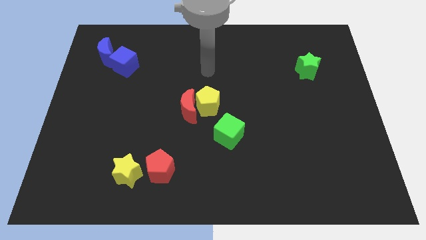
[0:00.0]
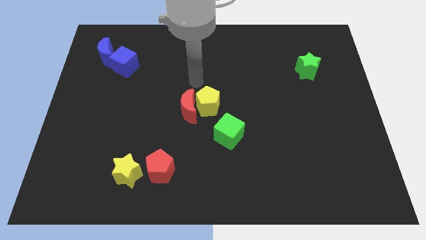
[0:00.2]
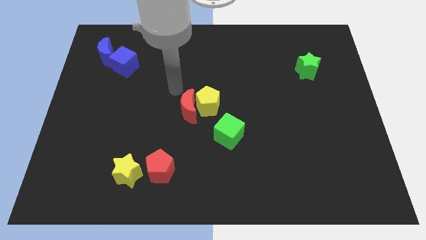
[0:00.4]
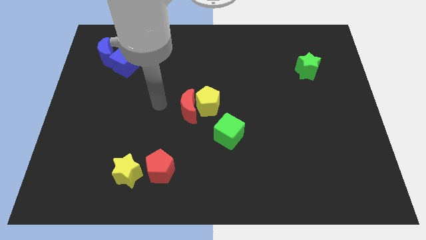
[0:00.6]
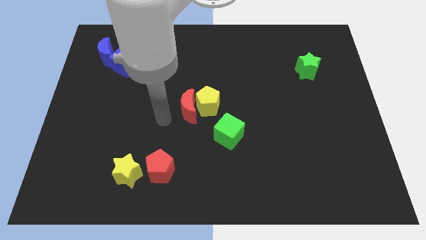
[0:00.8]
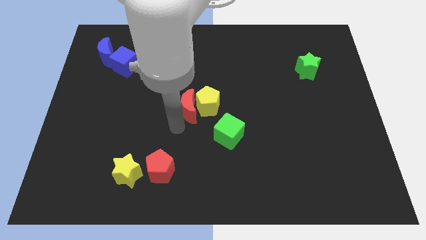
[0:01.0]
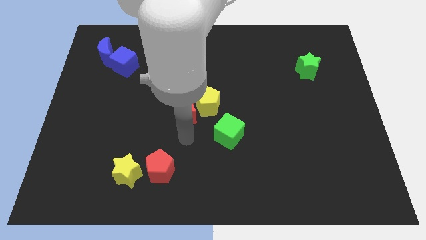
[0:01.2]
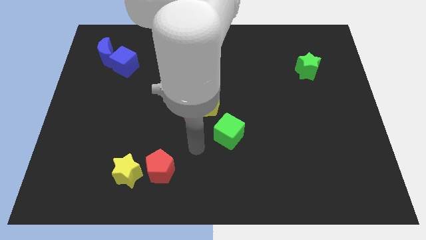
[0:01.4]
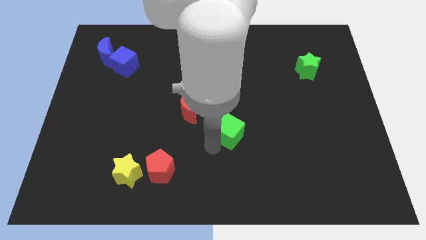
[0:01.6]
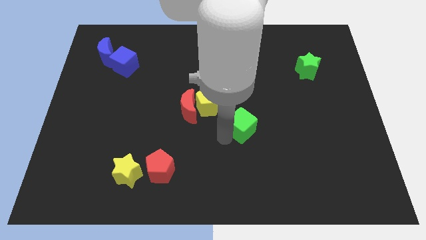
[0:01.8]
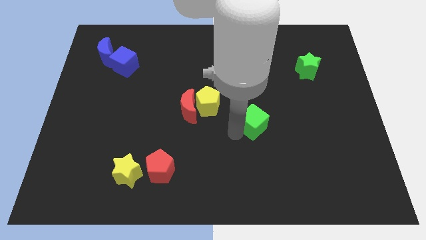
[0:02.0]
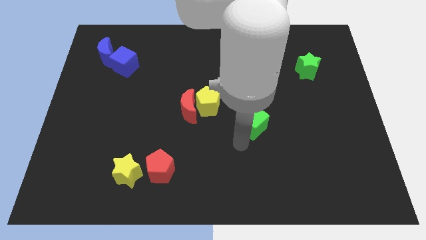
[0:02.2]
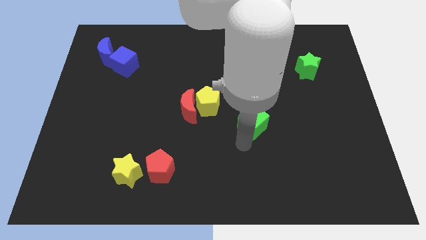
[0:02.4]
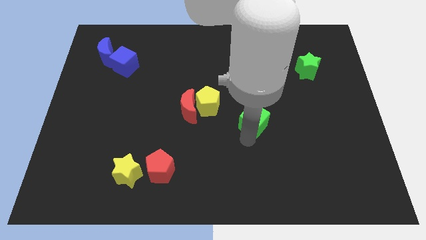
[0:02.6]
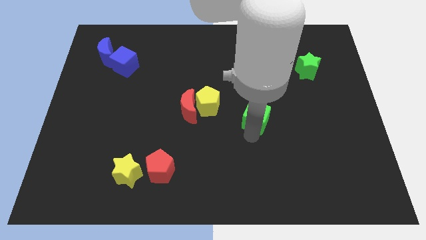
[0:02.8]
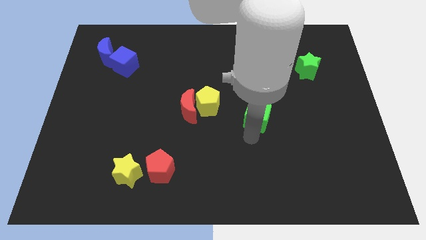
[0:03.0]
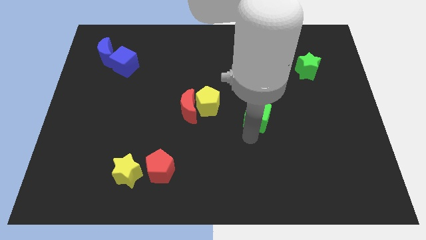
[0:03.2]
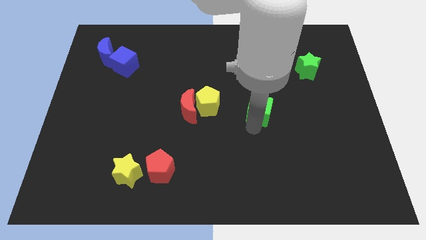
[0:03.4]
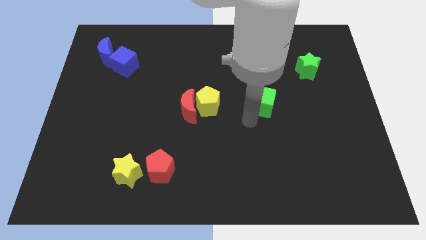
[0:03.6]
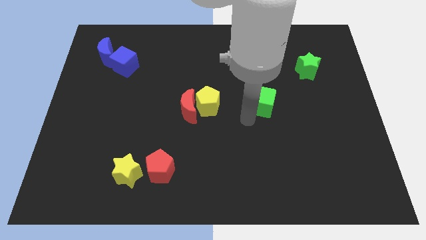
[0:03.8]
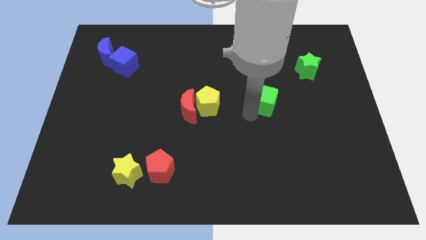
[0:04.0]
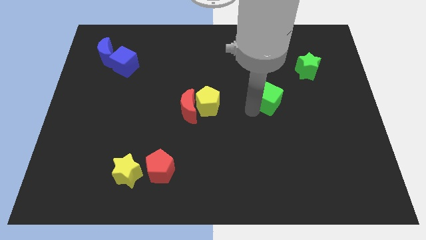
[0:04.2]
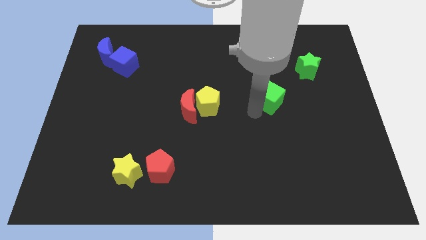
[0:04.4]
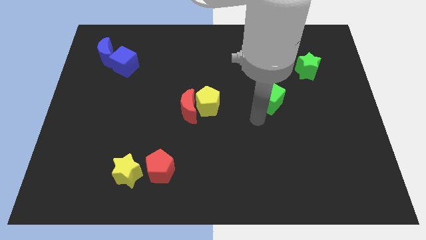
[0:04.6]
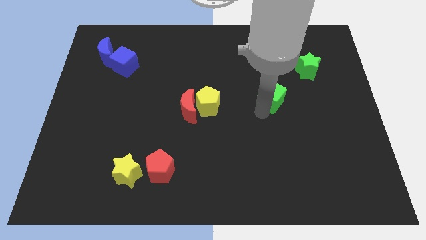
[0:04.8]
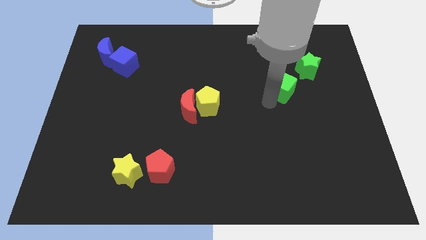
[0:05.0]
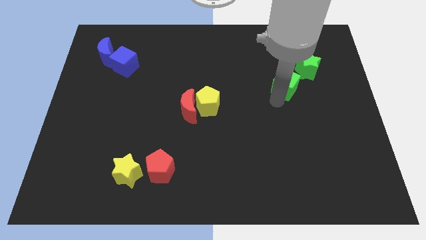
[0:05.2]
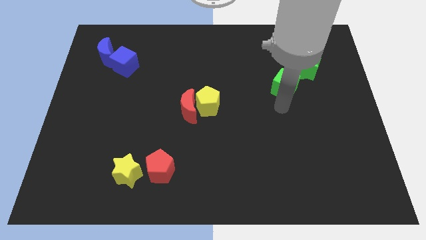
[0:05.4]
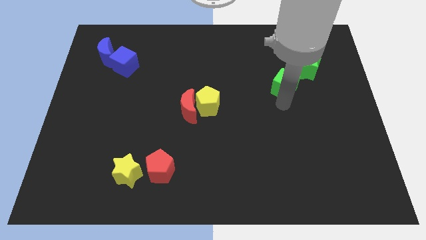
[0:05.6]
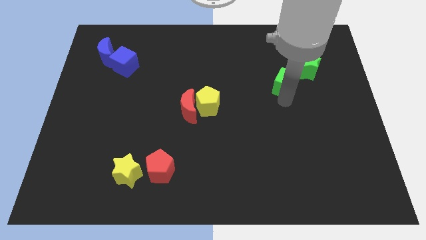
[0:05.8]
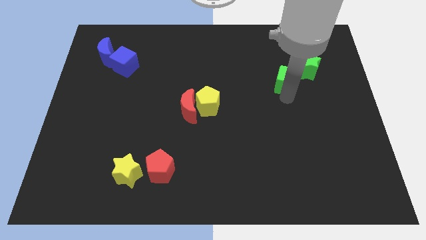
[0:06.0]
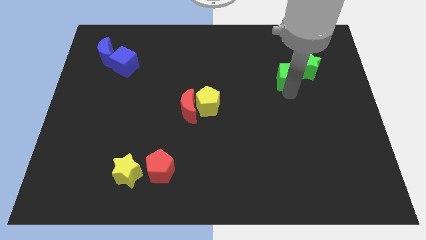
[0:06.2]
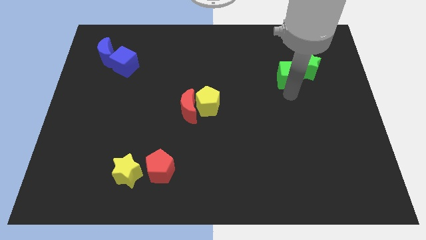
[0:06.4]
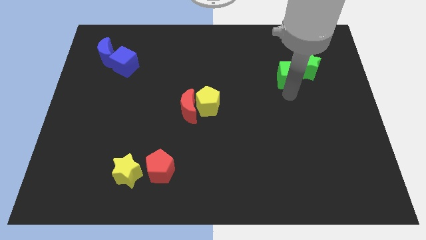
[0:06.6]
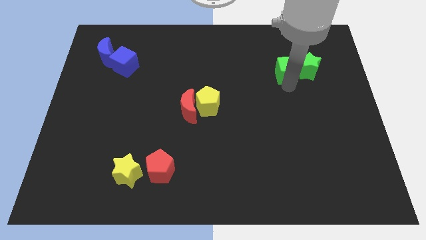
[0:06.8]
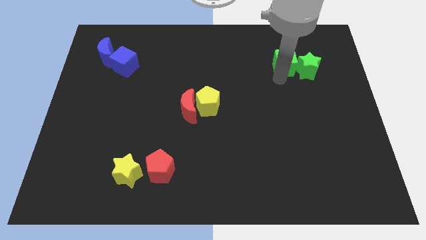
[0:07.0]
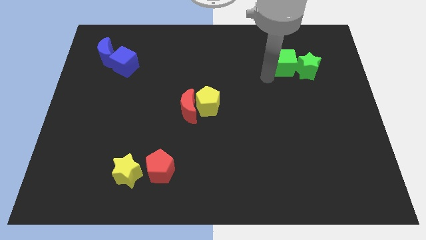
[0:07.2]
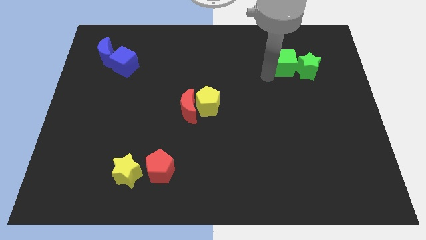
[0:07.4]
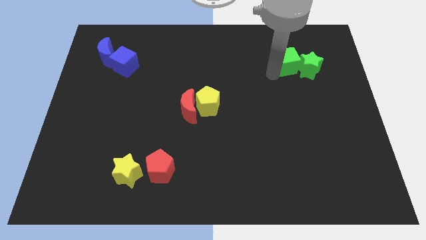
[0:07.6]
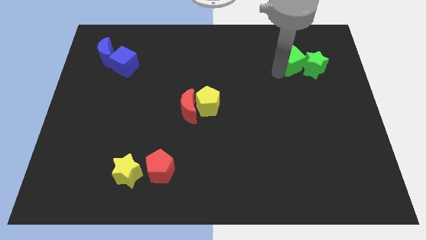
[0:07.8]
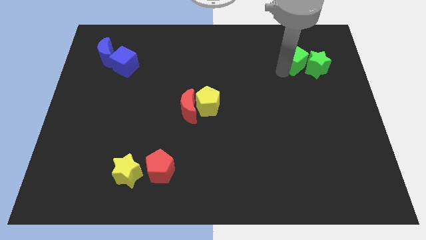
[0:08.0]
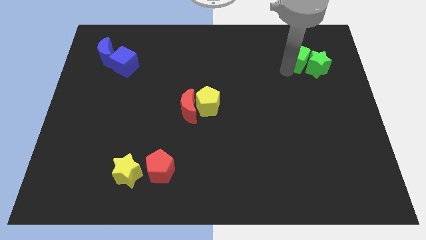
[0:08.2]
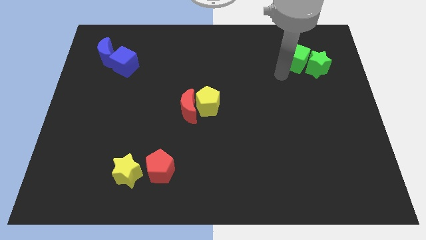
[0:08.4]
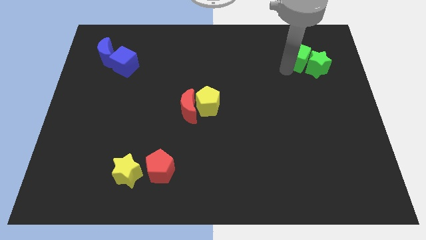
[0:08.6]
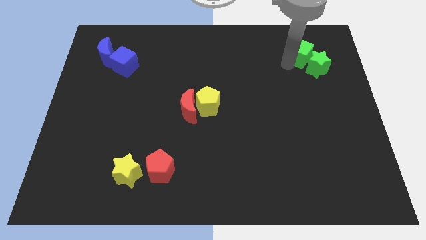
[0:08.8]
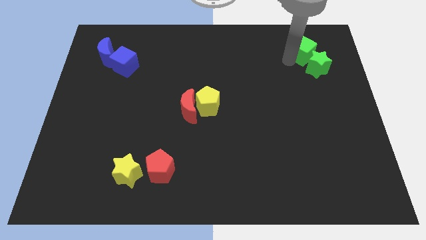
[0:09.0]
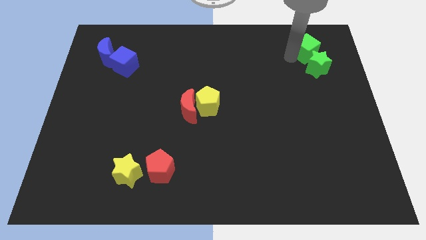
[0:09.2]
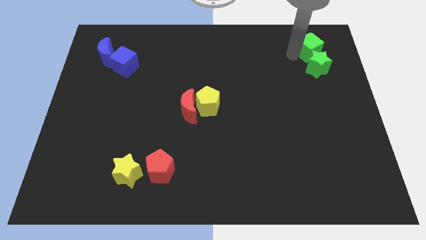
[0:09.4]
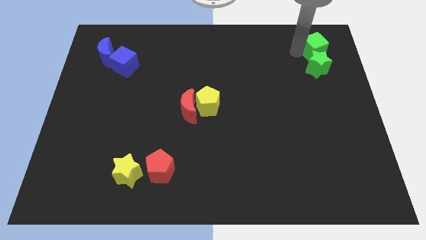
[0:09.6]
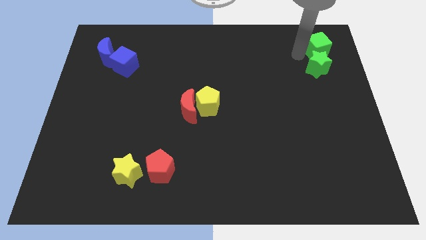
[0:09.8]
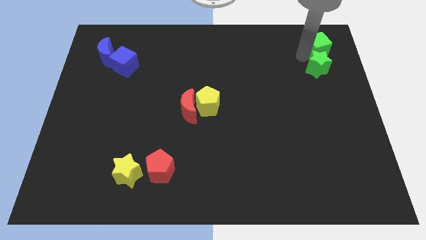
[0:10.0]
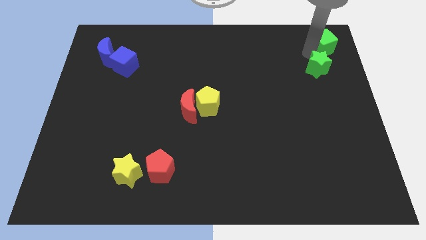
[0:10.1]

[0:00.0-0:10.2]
slide the green cube to the top right
